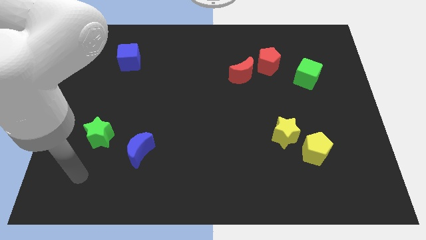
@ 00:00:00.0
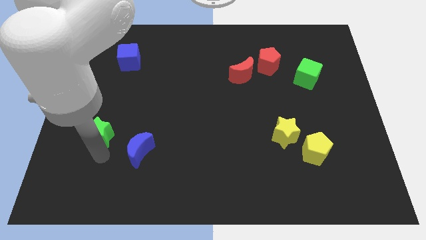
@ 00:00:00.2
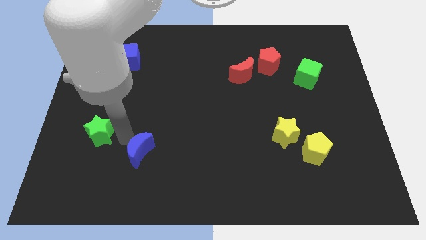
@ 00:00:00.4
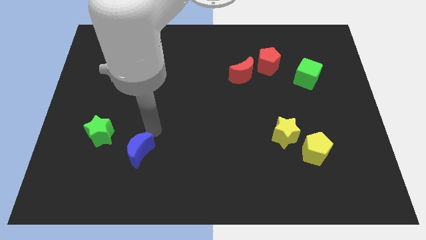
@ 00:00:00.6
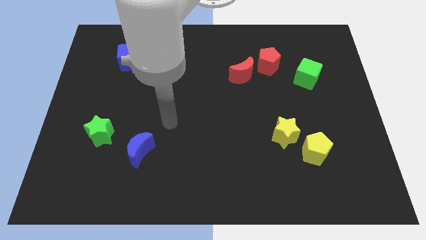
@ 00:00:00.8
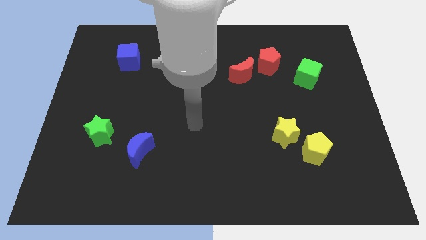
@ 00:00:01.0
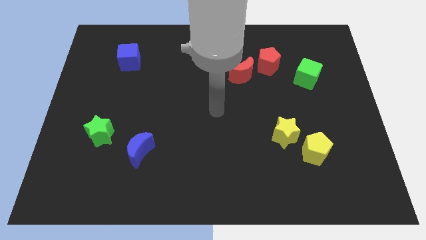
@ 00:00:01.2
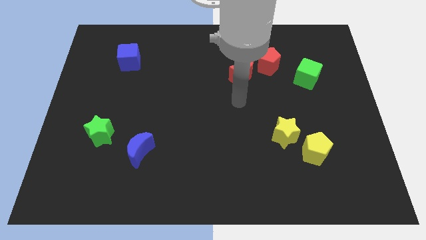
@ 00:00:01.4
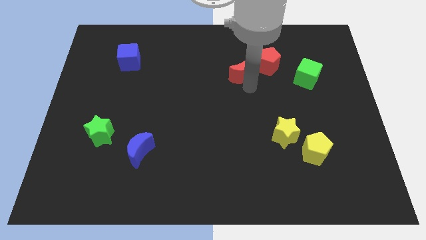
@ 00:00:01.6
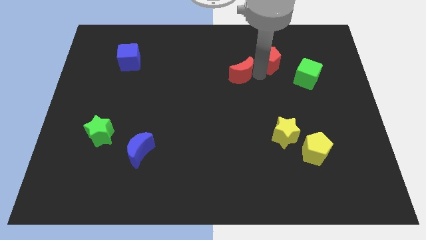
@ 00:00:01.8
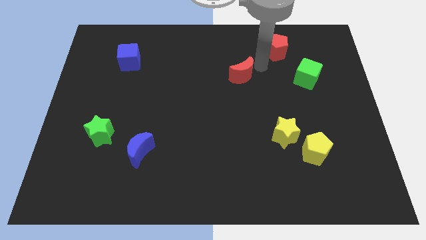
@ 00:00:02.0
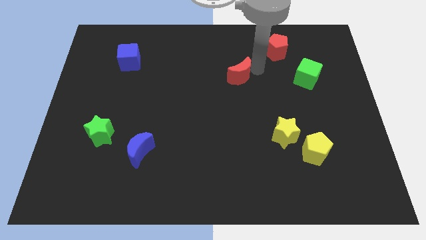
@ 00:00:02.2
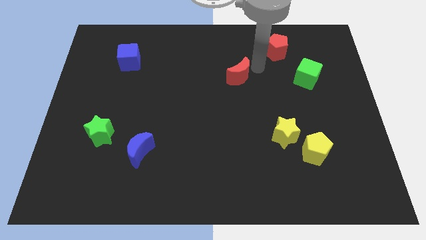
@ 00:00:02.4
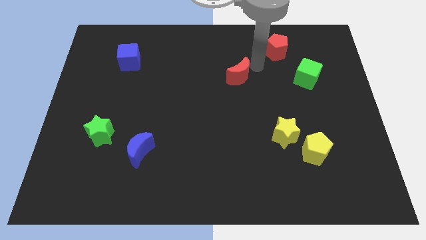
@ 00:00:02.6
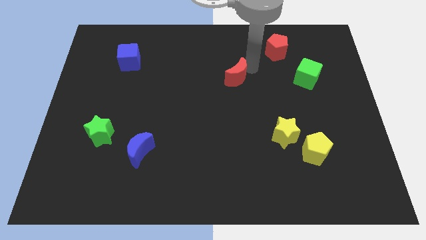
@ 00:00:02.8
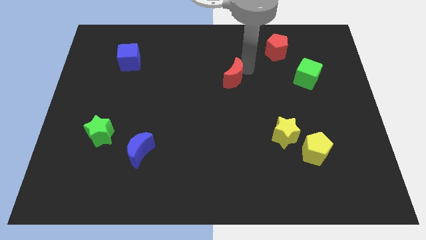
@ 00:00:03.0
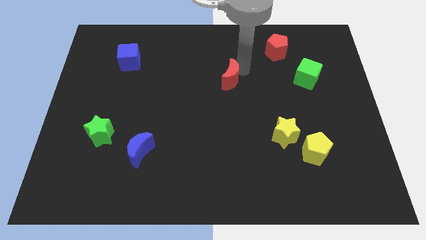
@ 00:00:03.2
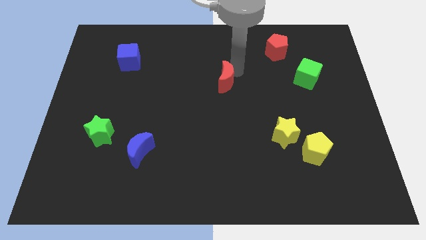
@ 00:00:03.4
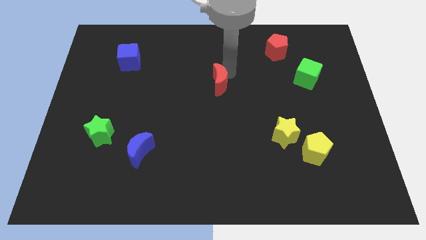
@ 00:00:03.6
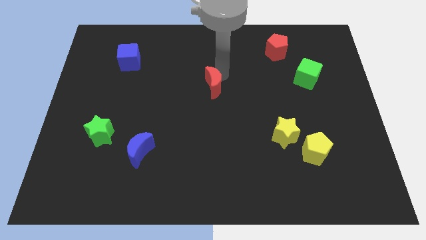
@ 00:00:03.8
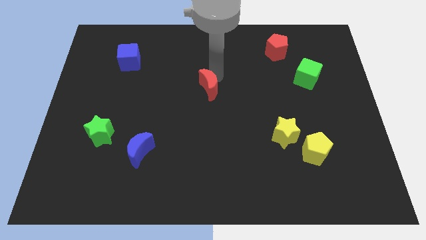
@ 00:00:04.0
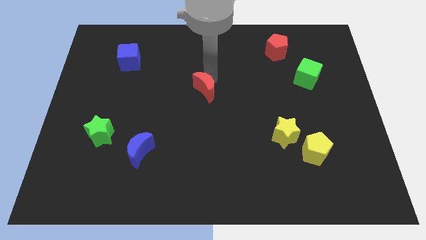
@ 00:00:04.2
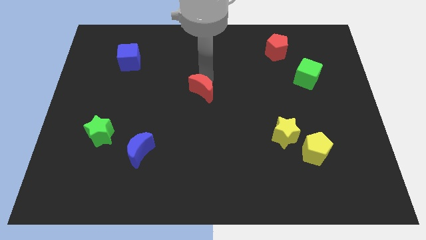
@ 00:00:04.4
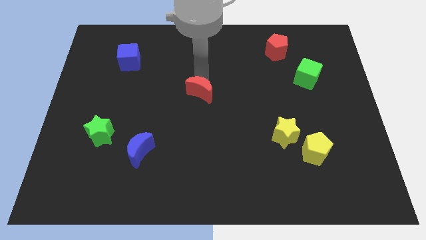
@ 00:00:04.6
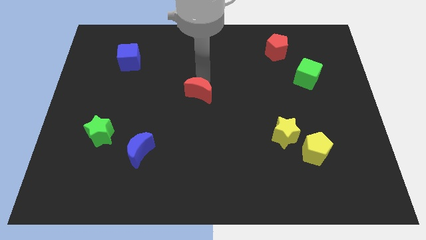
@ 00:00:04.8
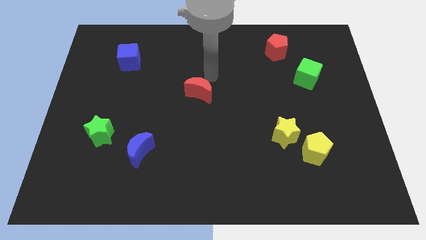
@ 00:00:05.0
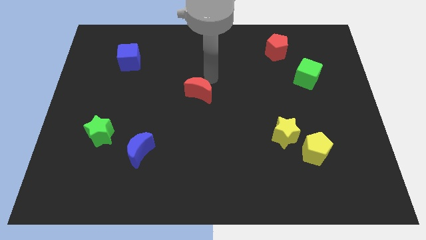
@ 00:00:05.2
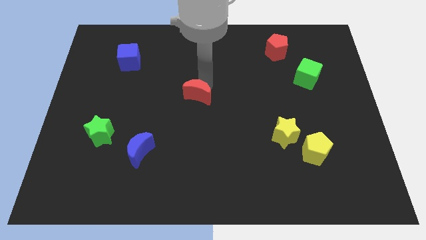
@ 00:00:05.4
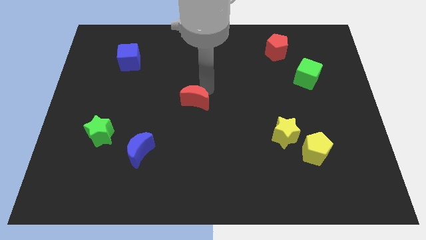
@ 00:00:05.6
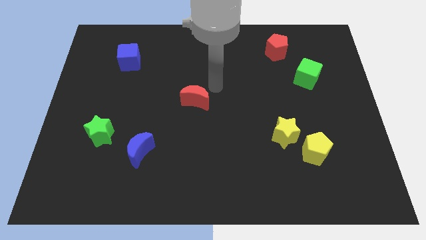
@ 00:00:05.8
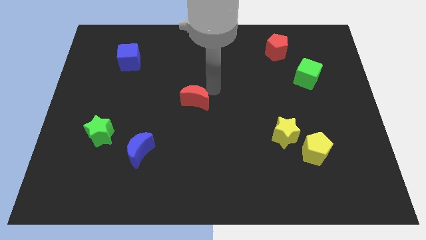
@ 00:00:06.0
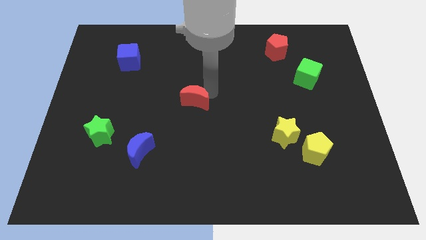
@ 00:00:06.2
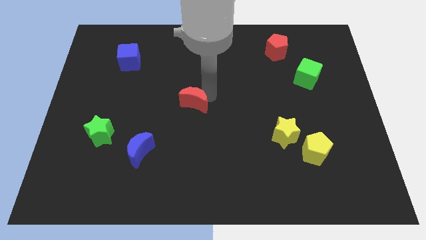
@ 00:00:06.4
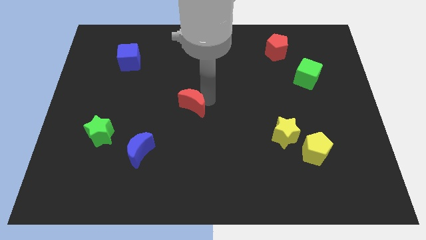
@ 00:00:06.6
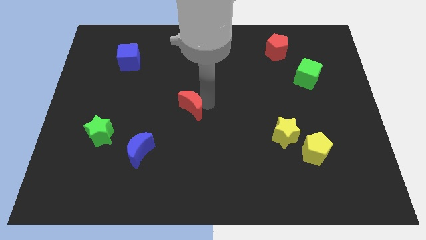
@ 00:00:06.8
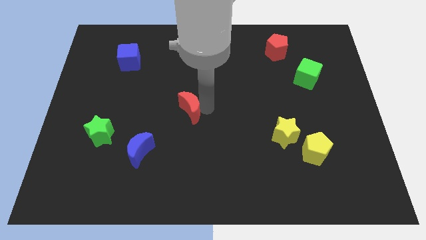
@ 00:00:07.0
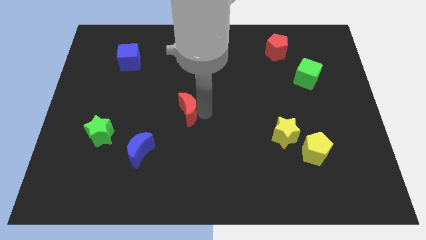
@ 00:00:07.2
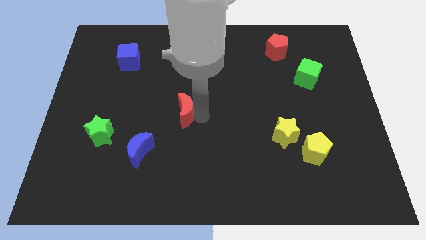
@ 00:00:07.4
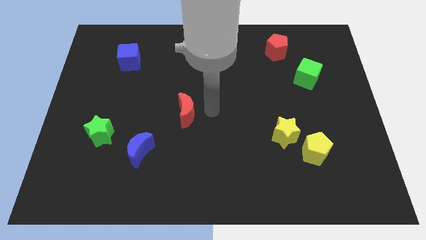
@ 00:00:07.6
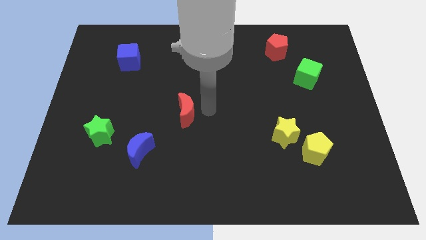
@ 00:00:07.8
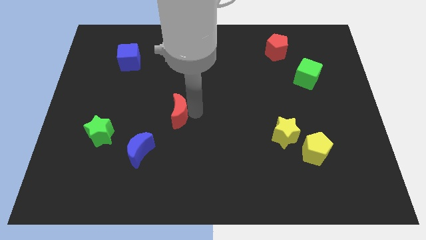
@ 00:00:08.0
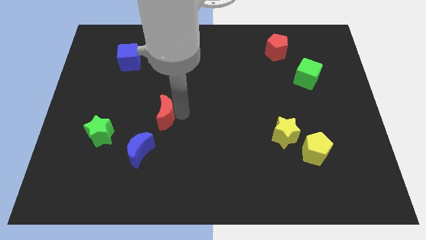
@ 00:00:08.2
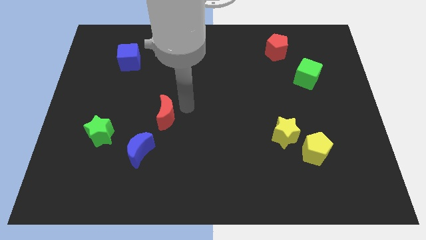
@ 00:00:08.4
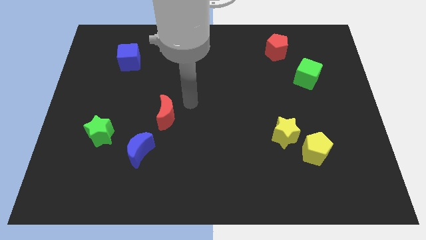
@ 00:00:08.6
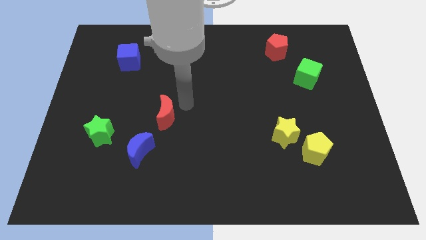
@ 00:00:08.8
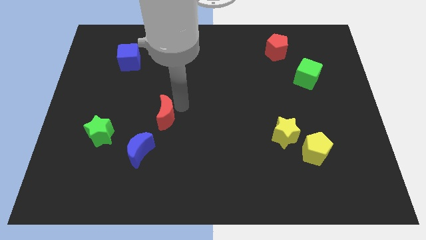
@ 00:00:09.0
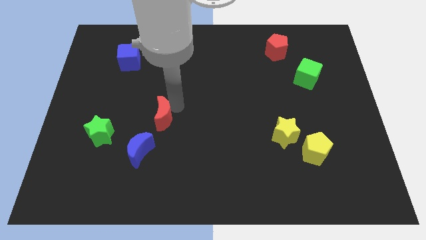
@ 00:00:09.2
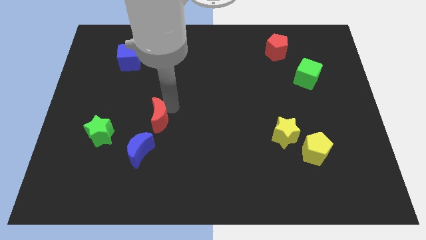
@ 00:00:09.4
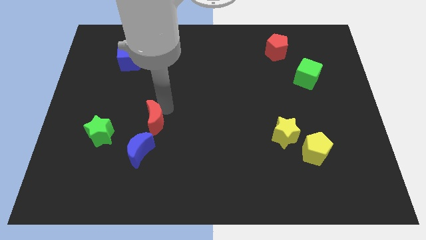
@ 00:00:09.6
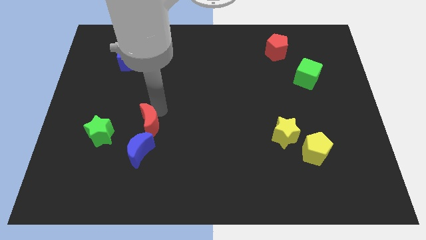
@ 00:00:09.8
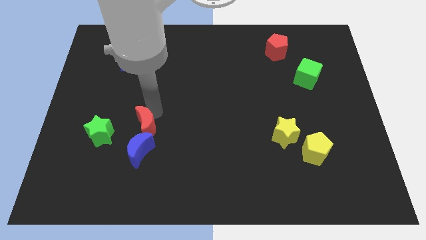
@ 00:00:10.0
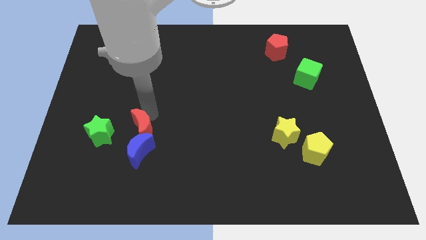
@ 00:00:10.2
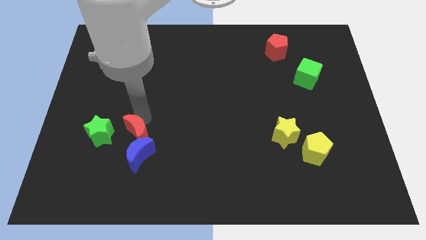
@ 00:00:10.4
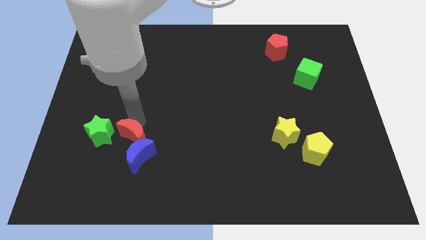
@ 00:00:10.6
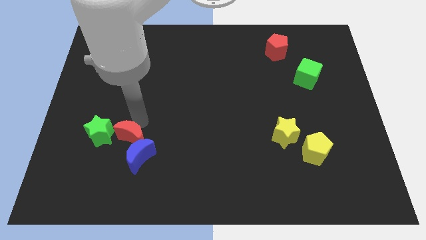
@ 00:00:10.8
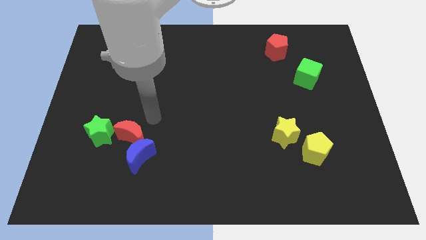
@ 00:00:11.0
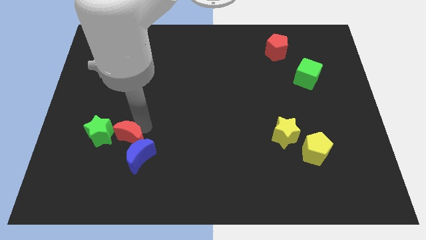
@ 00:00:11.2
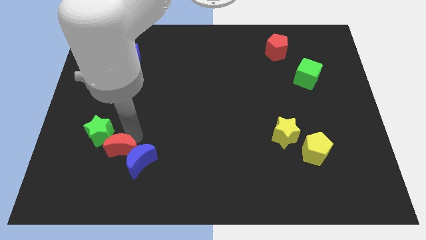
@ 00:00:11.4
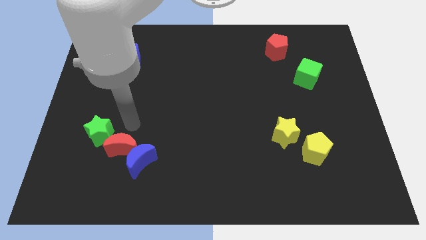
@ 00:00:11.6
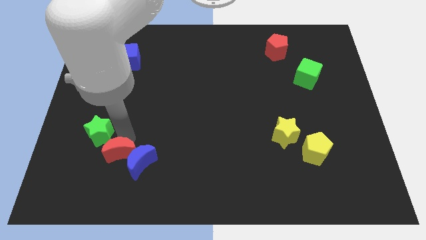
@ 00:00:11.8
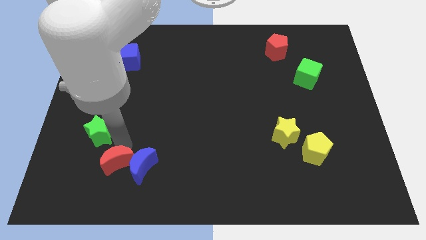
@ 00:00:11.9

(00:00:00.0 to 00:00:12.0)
move the red moon diagonally down and to the left of the blue moon

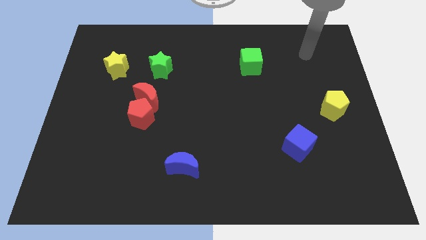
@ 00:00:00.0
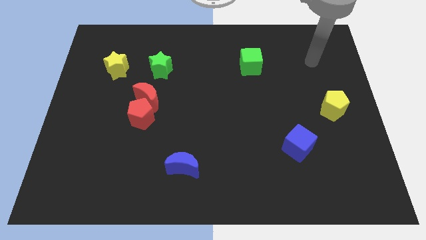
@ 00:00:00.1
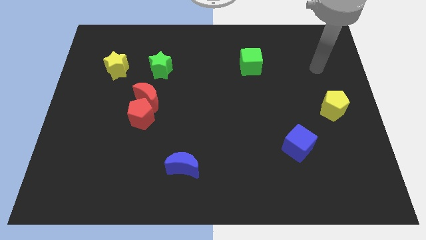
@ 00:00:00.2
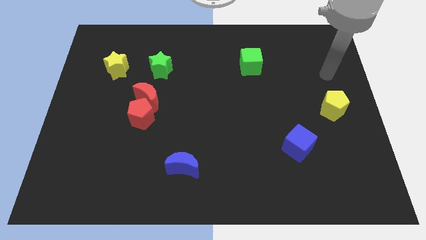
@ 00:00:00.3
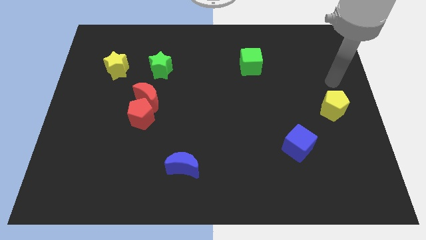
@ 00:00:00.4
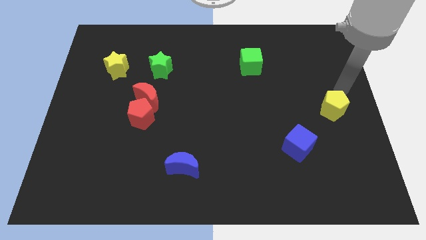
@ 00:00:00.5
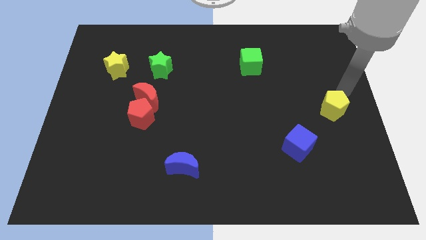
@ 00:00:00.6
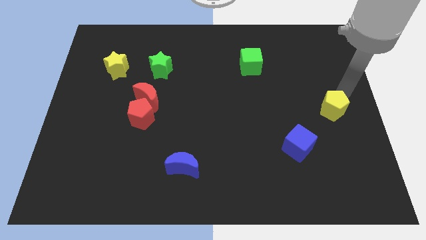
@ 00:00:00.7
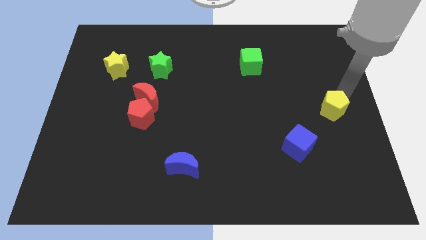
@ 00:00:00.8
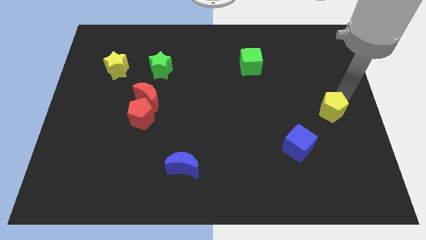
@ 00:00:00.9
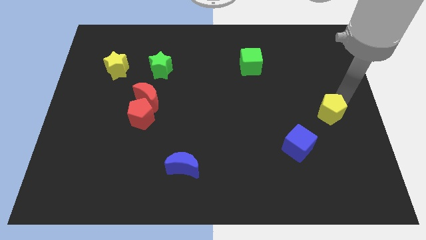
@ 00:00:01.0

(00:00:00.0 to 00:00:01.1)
move the yellow pentagon diagonally up and to the right of the blue cube
